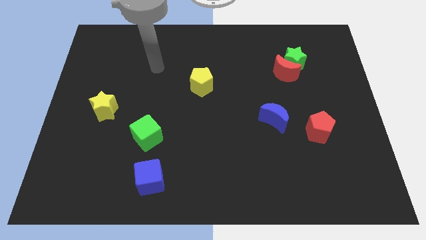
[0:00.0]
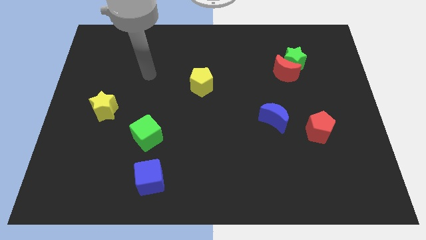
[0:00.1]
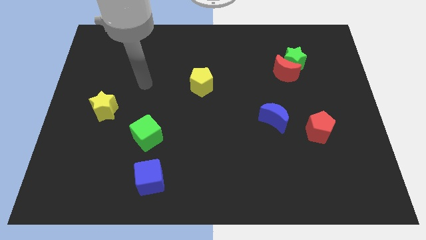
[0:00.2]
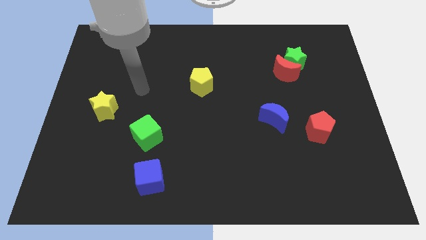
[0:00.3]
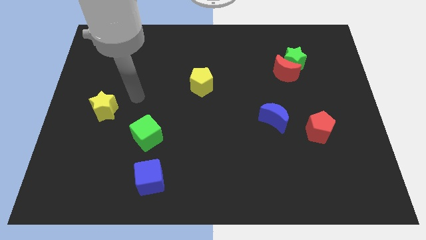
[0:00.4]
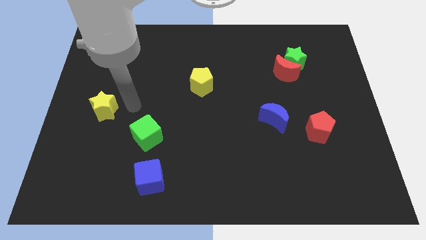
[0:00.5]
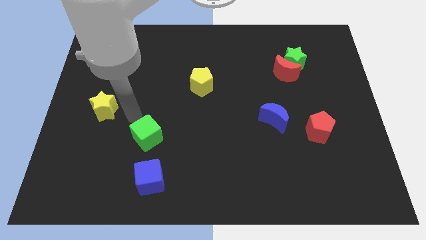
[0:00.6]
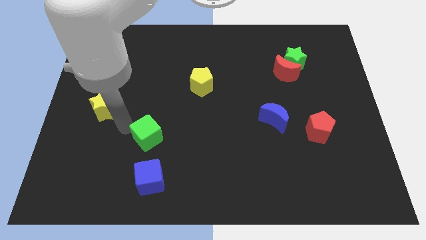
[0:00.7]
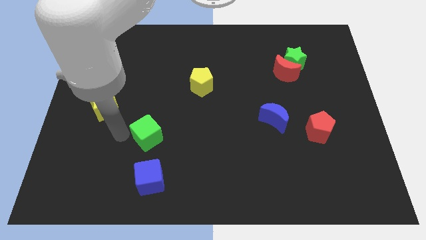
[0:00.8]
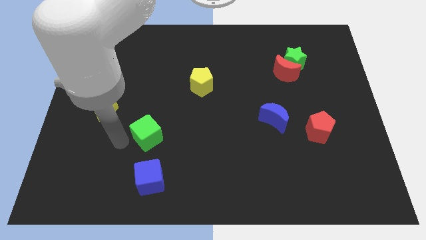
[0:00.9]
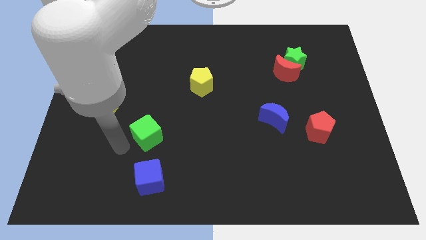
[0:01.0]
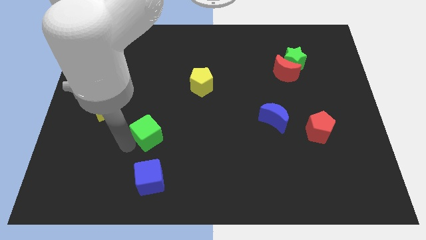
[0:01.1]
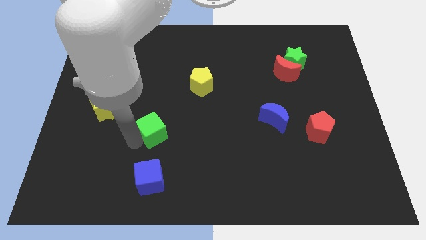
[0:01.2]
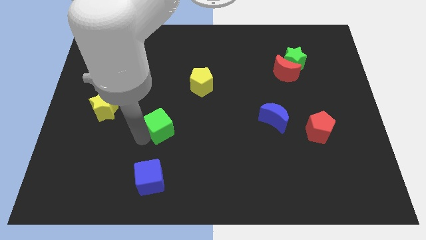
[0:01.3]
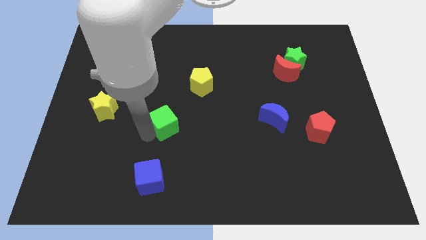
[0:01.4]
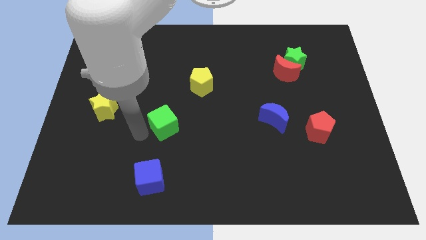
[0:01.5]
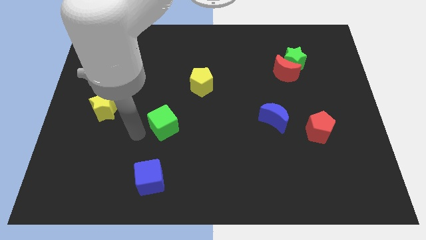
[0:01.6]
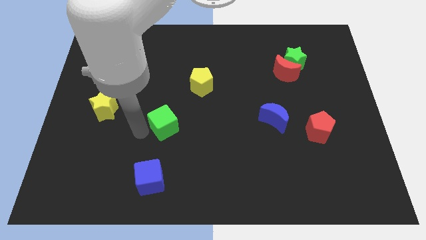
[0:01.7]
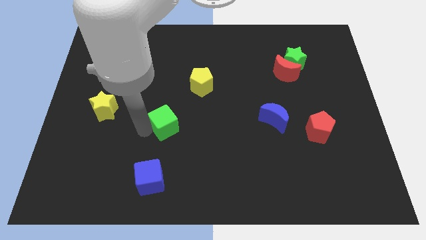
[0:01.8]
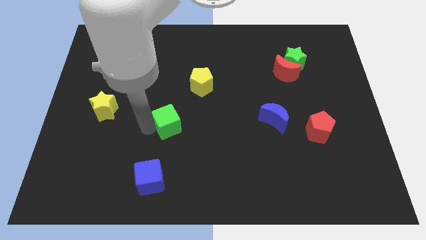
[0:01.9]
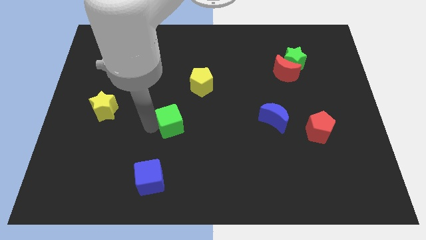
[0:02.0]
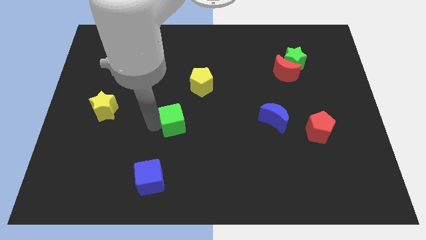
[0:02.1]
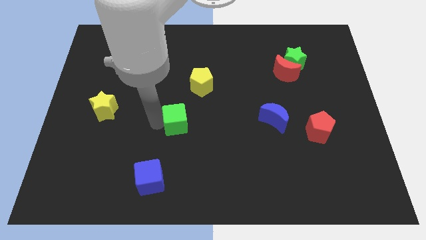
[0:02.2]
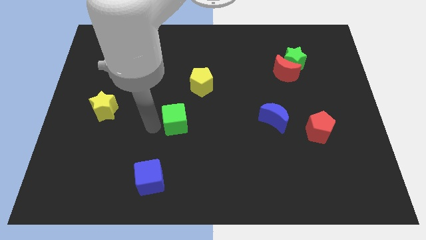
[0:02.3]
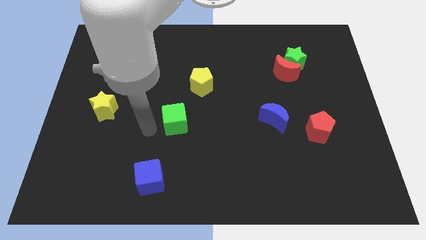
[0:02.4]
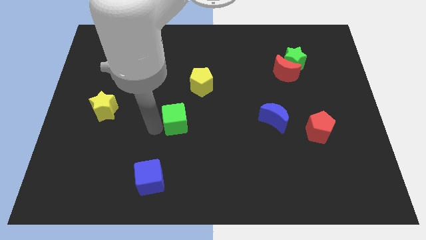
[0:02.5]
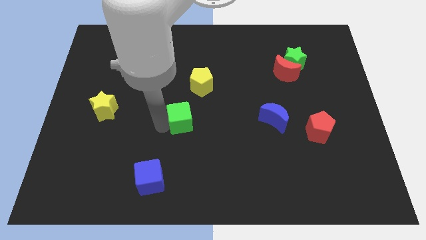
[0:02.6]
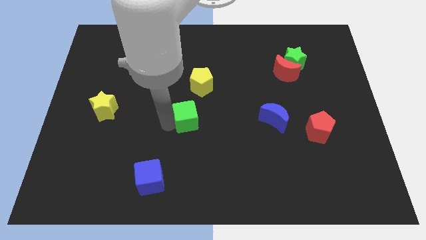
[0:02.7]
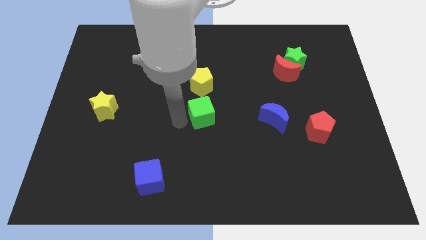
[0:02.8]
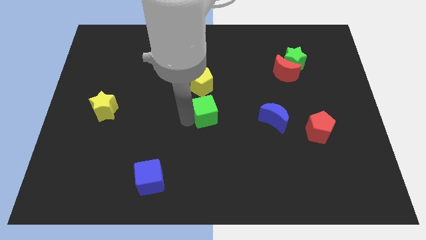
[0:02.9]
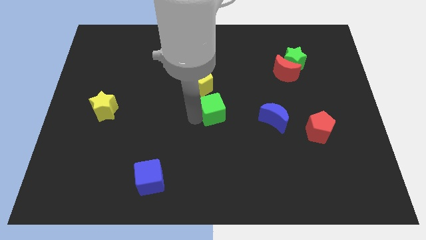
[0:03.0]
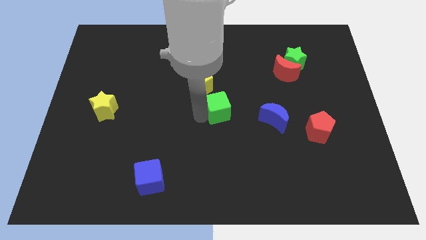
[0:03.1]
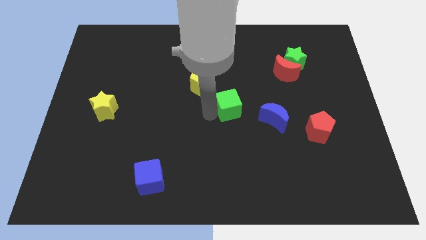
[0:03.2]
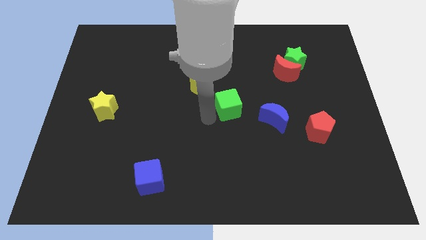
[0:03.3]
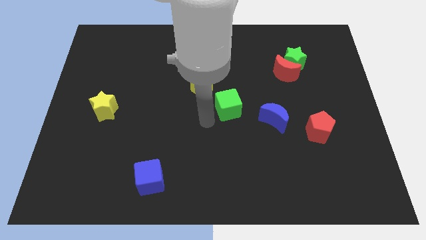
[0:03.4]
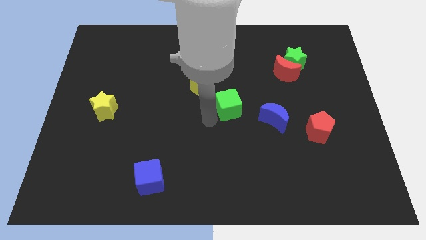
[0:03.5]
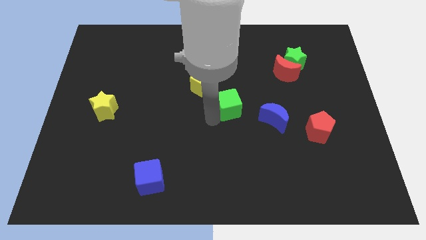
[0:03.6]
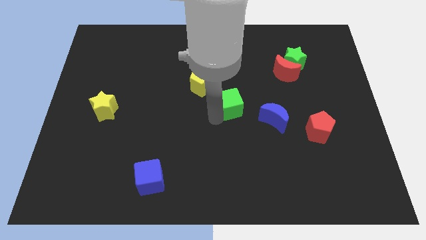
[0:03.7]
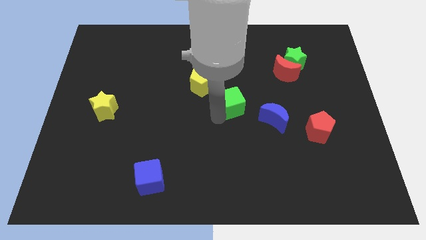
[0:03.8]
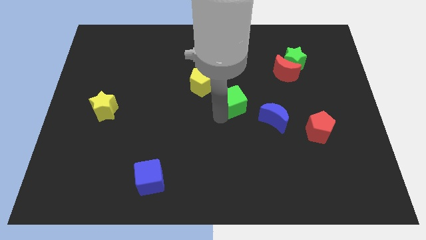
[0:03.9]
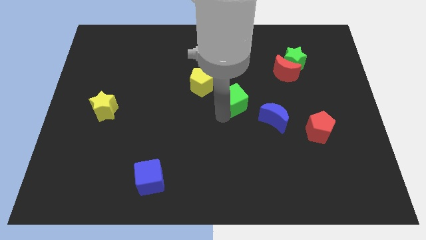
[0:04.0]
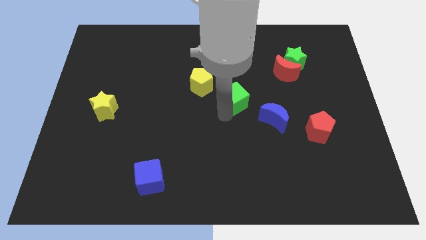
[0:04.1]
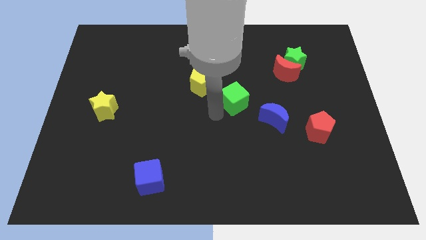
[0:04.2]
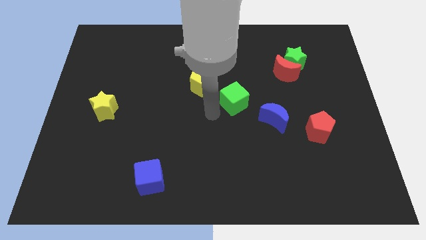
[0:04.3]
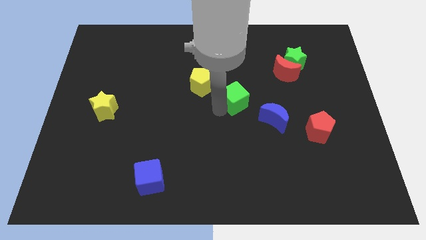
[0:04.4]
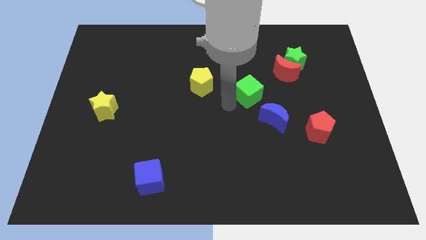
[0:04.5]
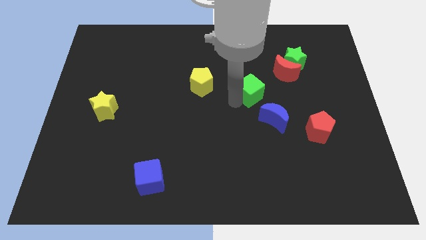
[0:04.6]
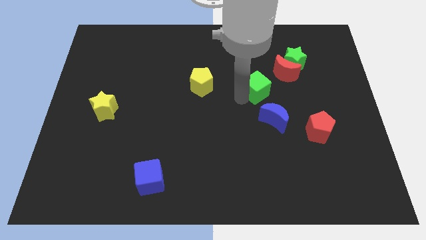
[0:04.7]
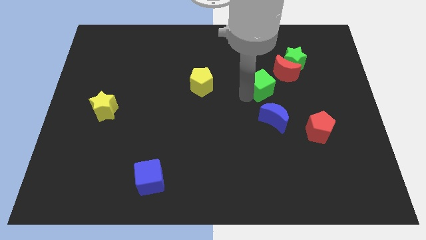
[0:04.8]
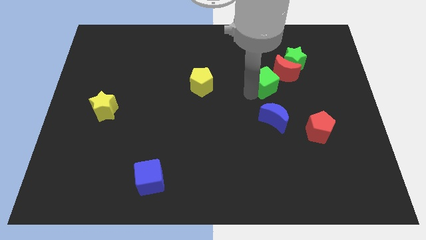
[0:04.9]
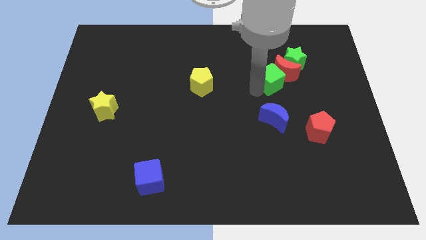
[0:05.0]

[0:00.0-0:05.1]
slide the green cube towards the red moon

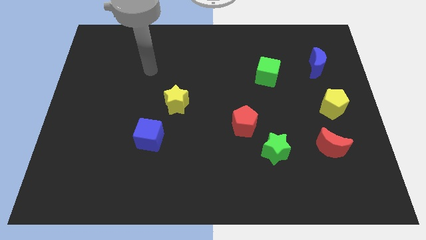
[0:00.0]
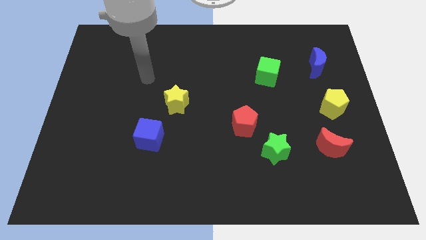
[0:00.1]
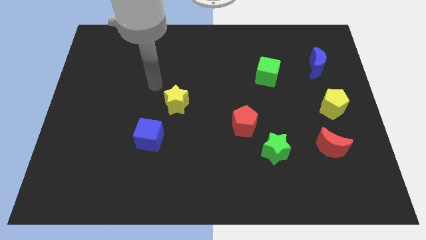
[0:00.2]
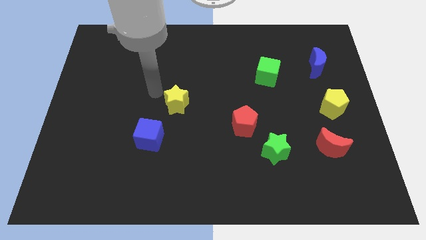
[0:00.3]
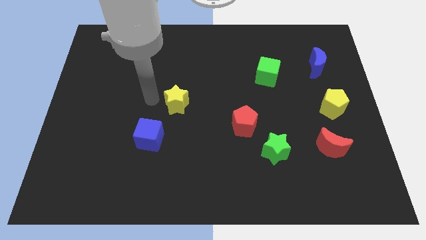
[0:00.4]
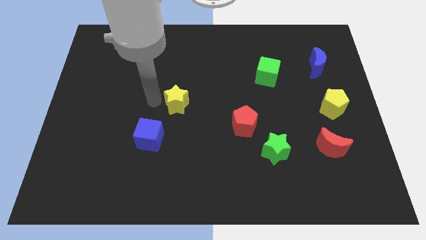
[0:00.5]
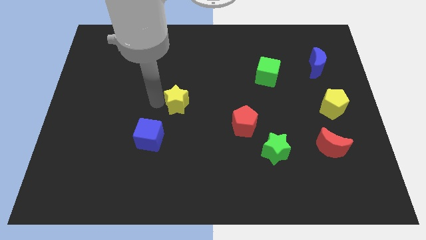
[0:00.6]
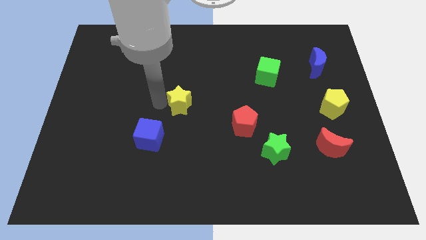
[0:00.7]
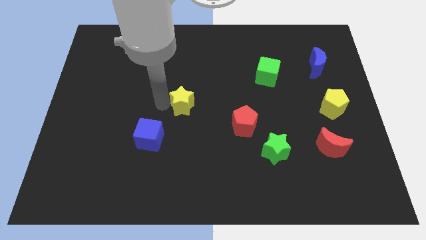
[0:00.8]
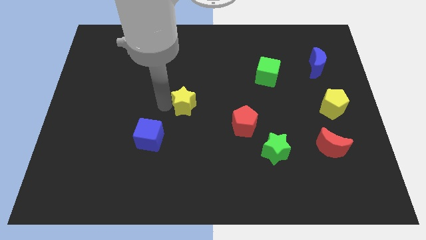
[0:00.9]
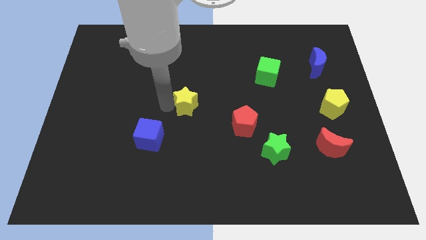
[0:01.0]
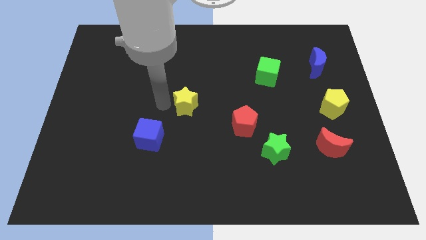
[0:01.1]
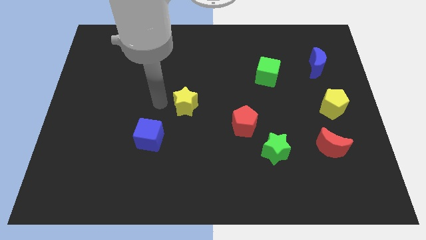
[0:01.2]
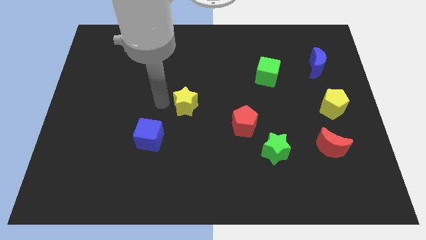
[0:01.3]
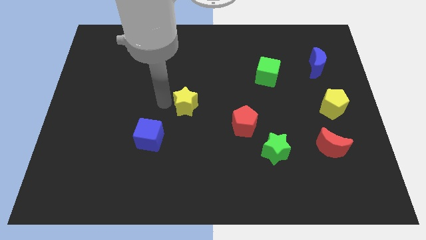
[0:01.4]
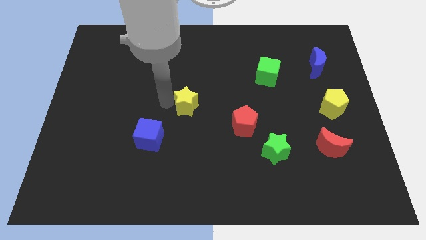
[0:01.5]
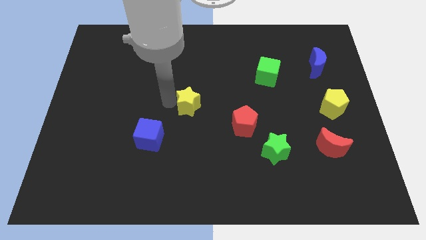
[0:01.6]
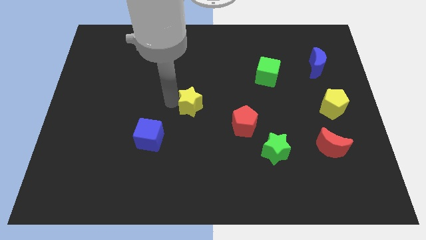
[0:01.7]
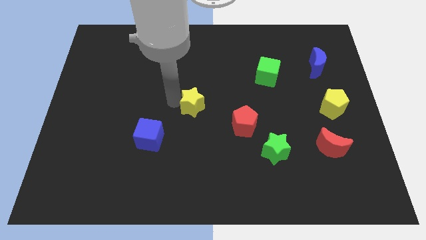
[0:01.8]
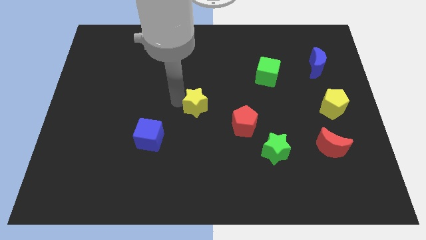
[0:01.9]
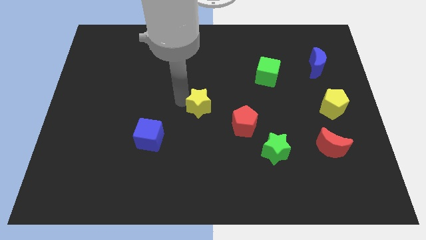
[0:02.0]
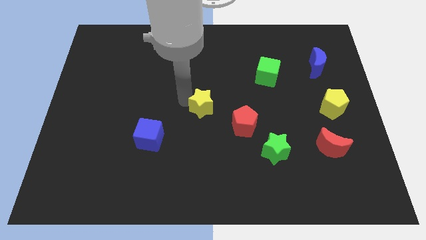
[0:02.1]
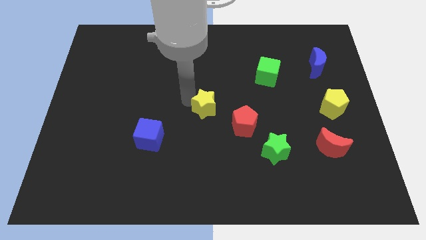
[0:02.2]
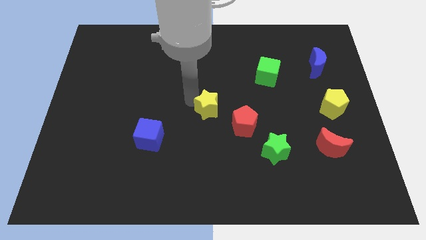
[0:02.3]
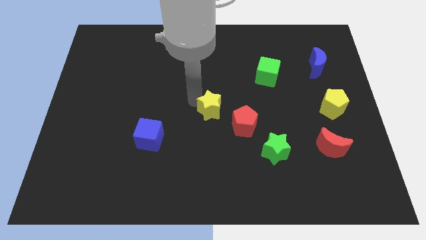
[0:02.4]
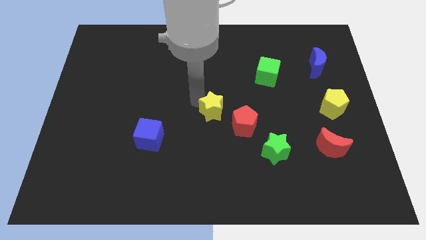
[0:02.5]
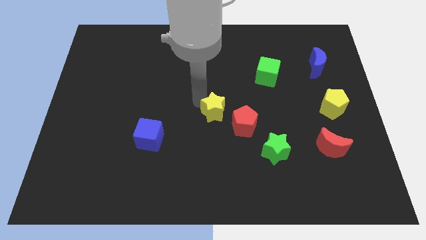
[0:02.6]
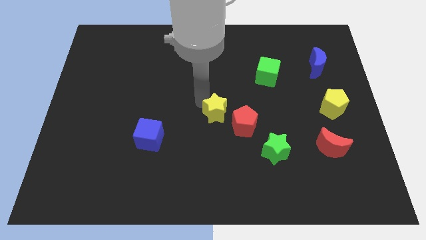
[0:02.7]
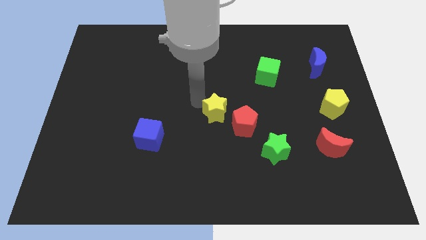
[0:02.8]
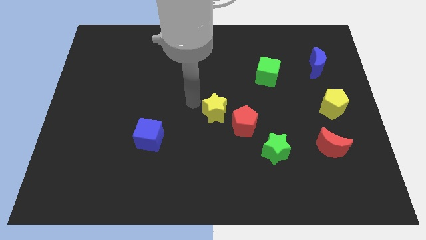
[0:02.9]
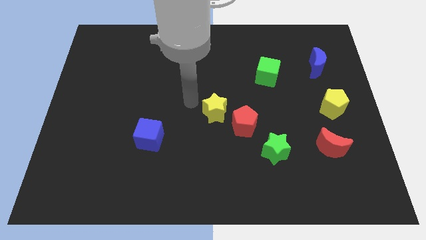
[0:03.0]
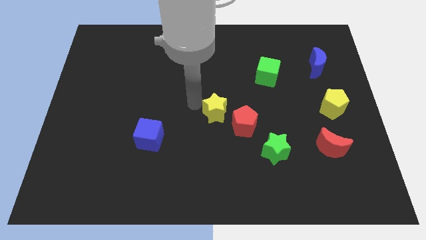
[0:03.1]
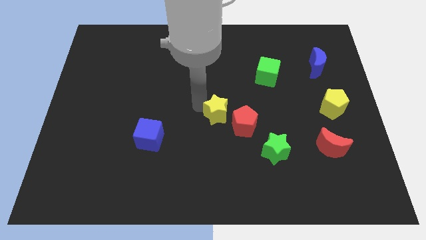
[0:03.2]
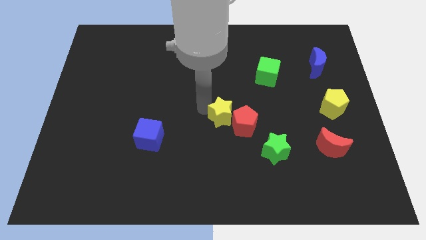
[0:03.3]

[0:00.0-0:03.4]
move the yellow star close to the red pentagon
